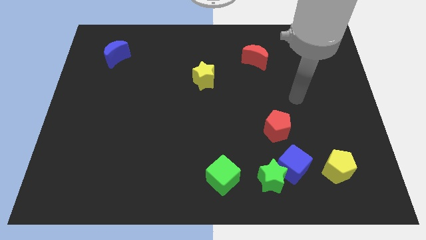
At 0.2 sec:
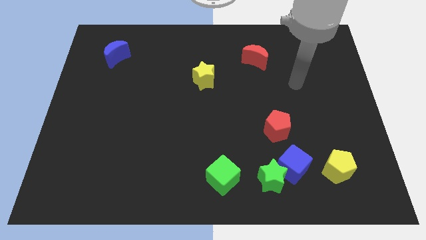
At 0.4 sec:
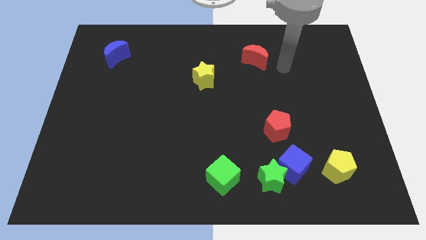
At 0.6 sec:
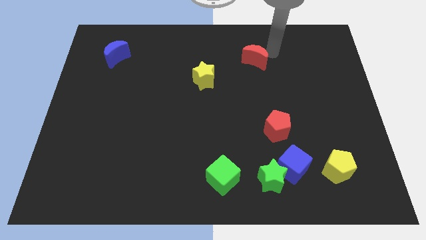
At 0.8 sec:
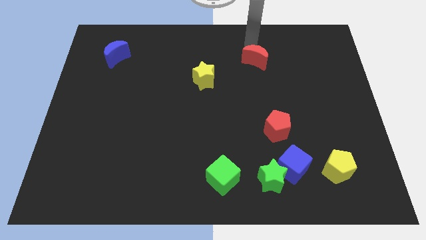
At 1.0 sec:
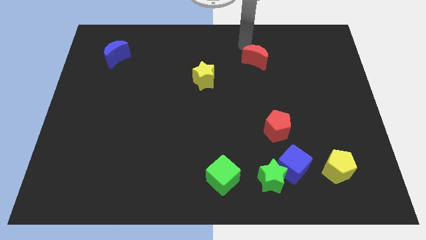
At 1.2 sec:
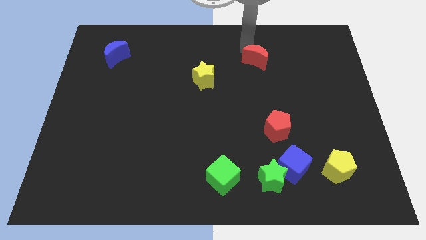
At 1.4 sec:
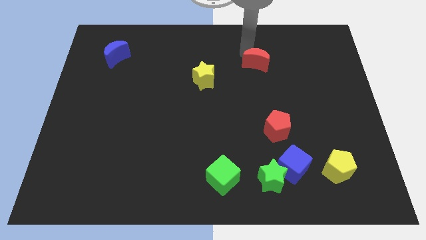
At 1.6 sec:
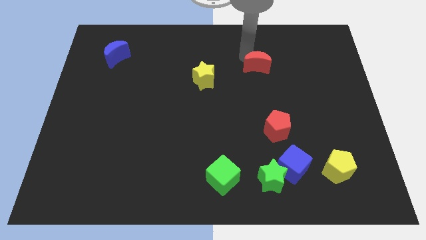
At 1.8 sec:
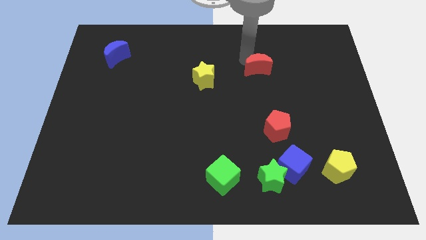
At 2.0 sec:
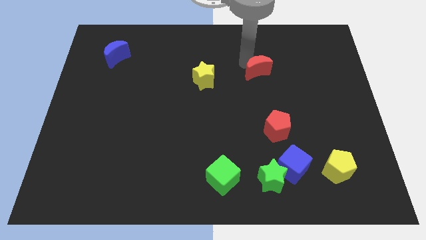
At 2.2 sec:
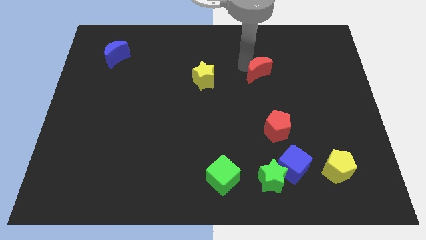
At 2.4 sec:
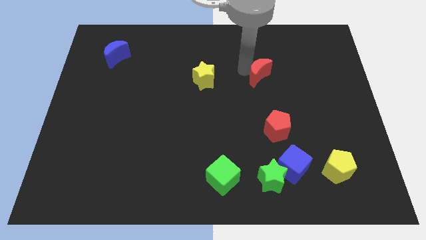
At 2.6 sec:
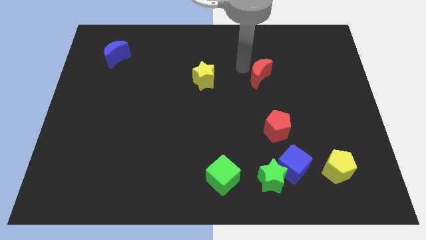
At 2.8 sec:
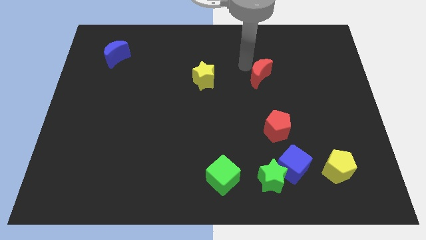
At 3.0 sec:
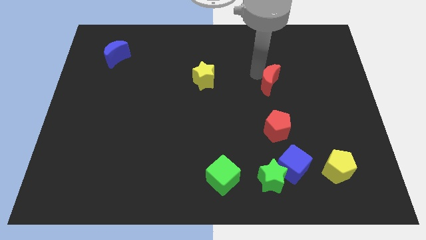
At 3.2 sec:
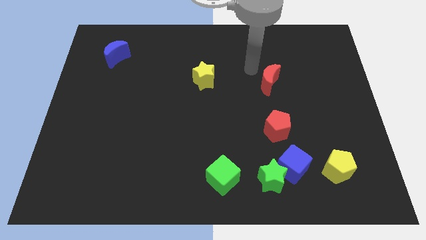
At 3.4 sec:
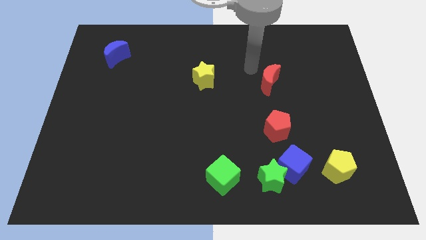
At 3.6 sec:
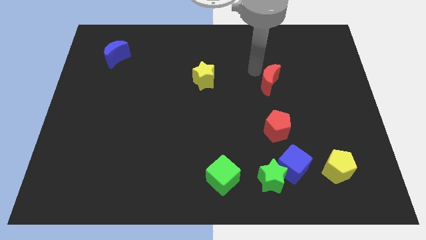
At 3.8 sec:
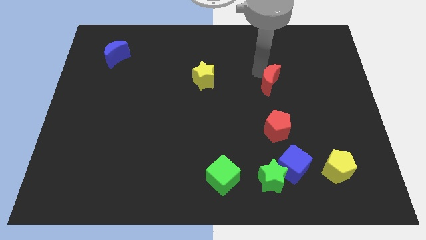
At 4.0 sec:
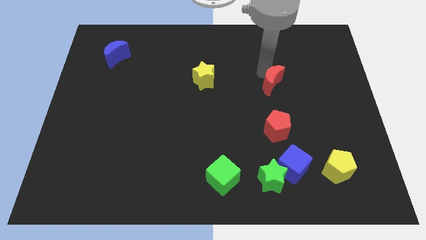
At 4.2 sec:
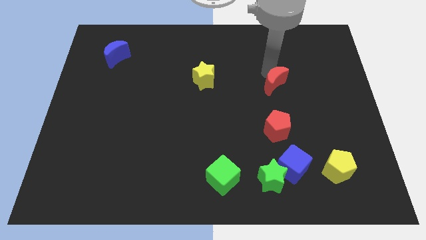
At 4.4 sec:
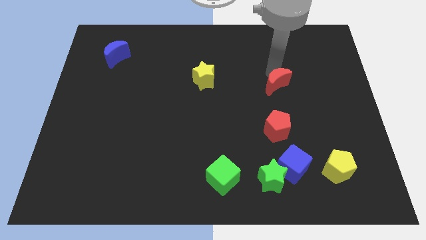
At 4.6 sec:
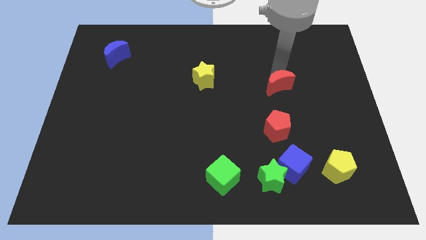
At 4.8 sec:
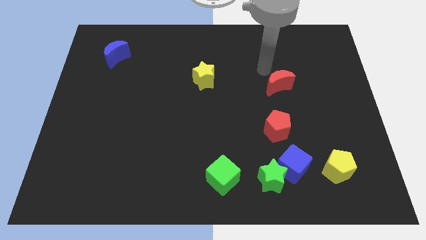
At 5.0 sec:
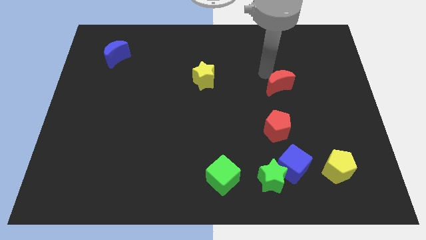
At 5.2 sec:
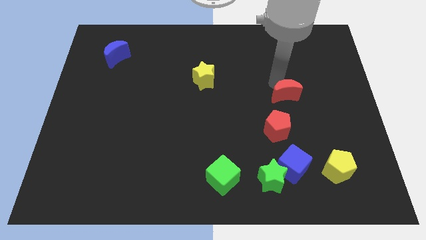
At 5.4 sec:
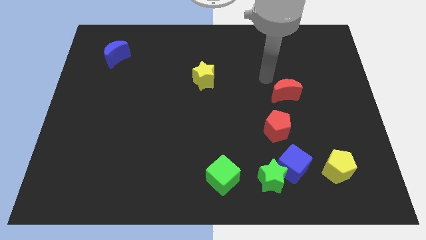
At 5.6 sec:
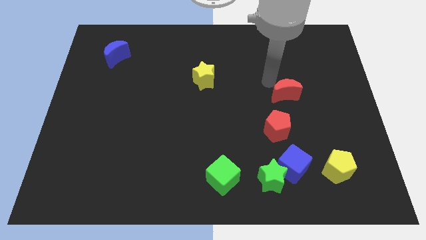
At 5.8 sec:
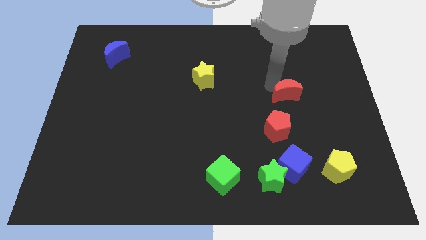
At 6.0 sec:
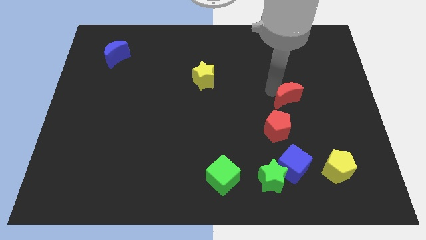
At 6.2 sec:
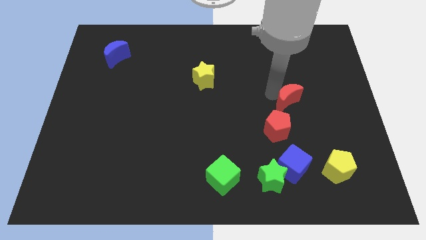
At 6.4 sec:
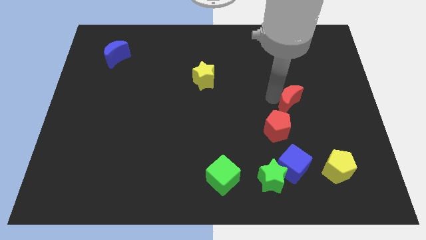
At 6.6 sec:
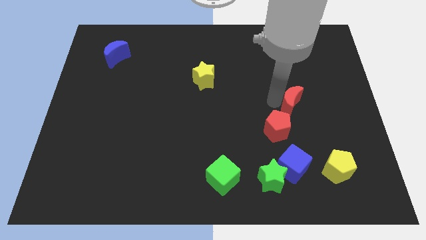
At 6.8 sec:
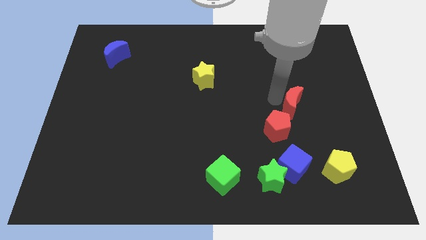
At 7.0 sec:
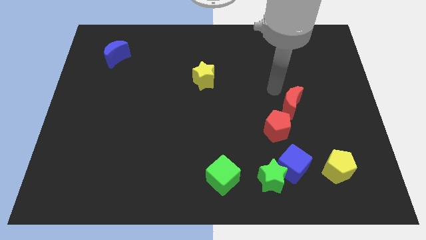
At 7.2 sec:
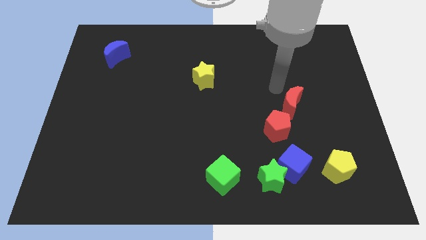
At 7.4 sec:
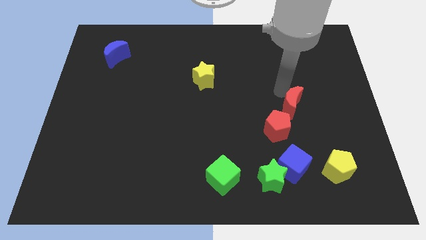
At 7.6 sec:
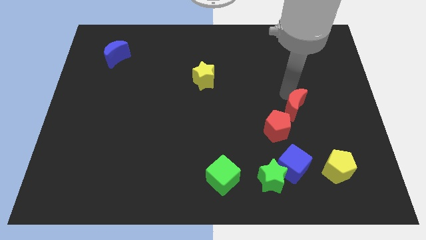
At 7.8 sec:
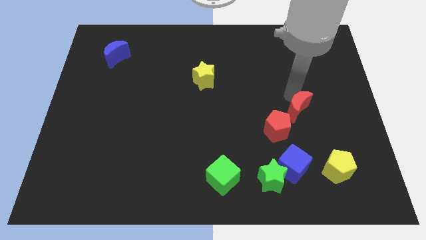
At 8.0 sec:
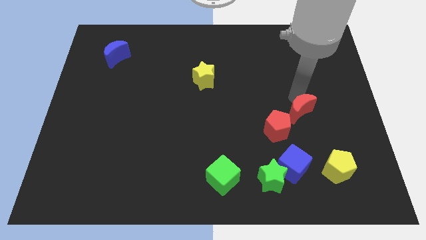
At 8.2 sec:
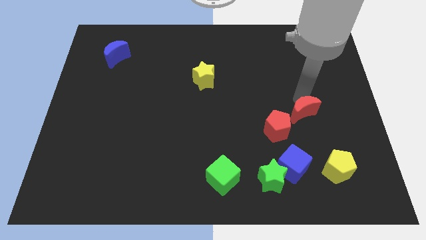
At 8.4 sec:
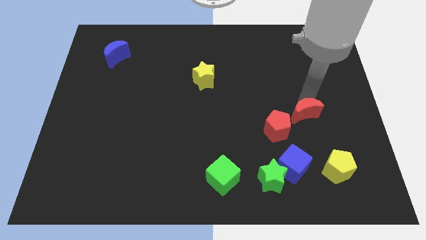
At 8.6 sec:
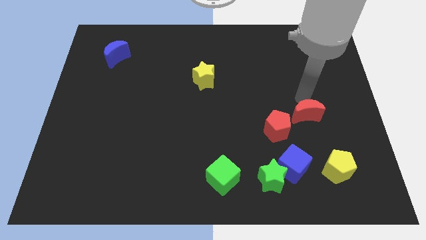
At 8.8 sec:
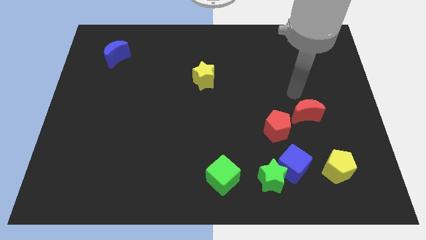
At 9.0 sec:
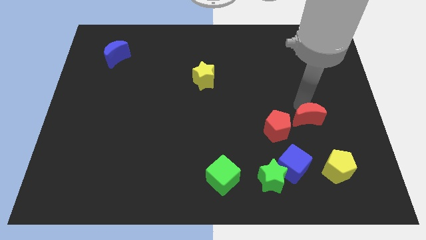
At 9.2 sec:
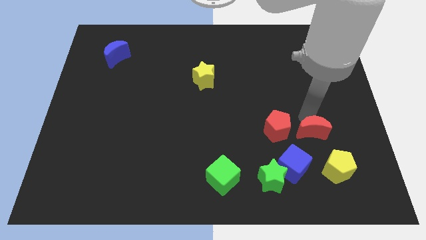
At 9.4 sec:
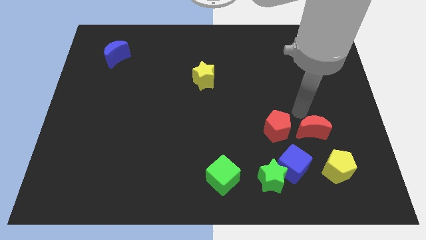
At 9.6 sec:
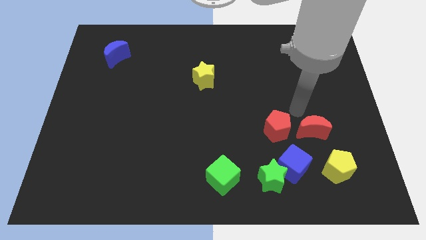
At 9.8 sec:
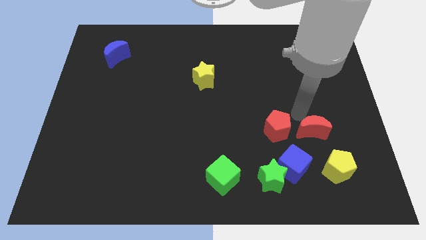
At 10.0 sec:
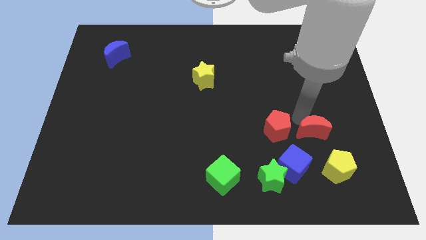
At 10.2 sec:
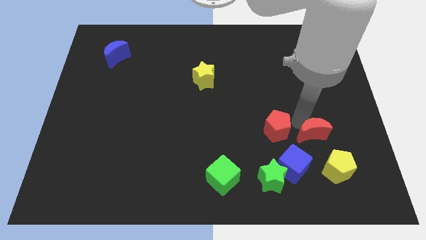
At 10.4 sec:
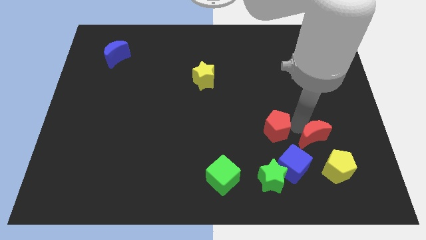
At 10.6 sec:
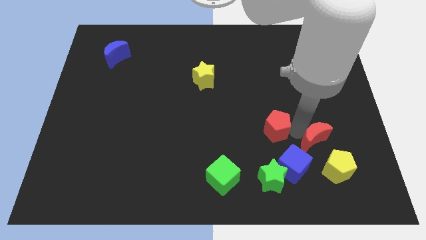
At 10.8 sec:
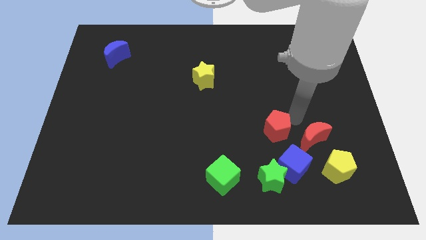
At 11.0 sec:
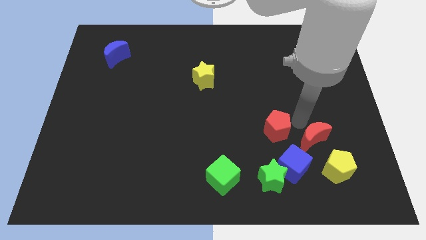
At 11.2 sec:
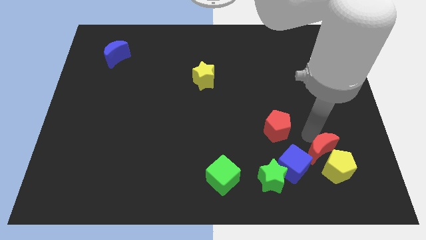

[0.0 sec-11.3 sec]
move the red moon towards the yellow pentagon
